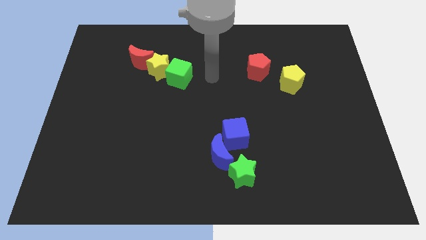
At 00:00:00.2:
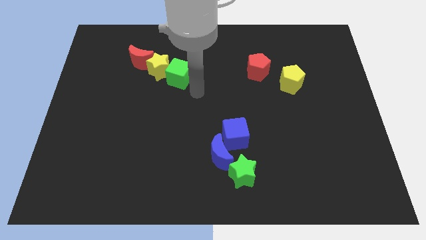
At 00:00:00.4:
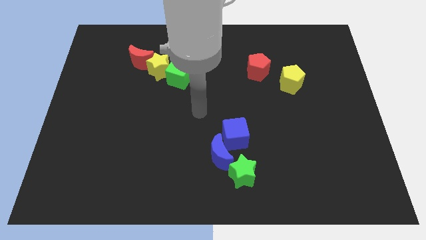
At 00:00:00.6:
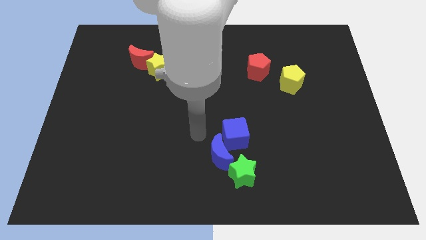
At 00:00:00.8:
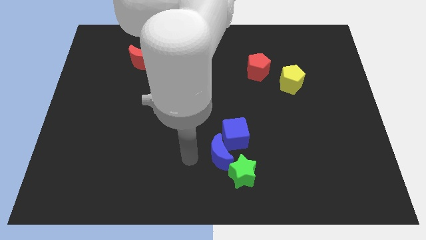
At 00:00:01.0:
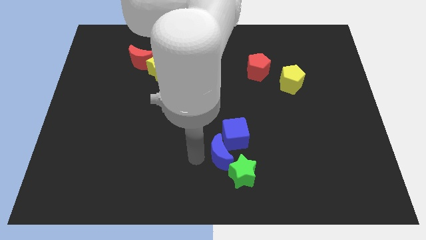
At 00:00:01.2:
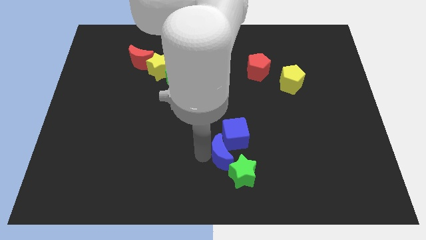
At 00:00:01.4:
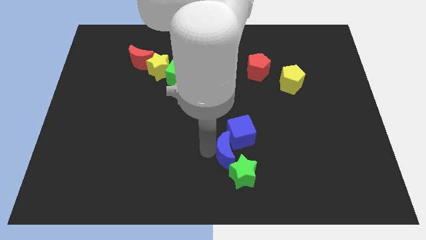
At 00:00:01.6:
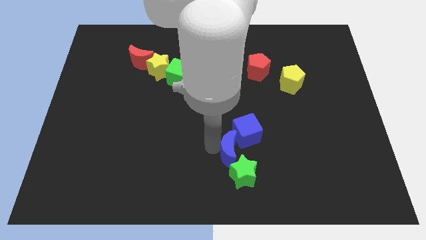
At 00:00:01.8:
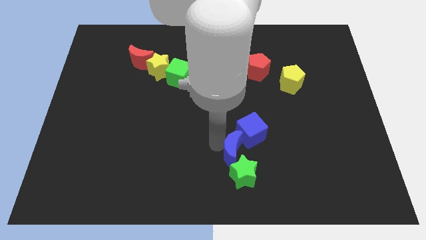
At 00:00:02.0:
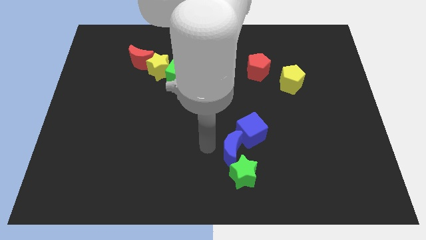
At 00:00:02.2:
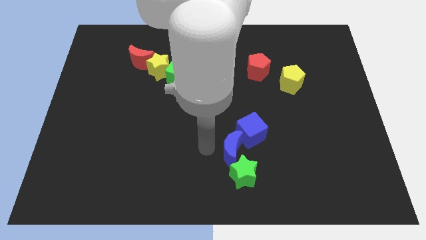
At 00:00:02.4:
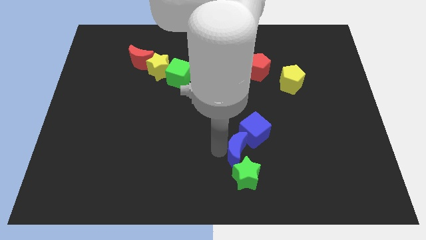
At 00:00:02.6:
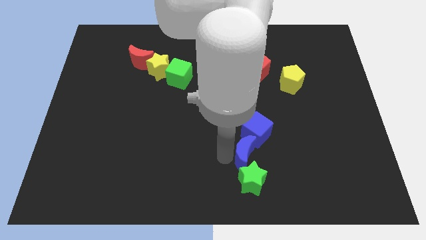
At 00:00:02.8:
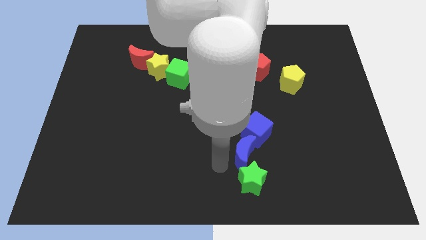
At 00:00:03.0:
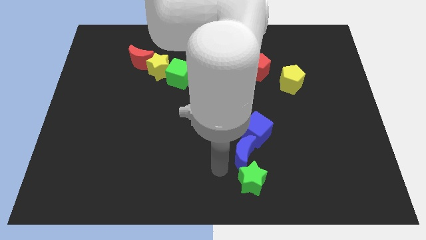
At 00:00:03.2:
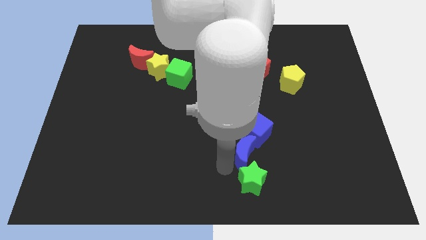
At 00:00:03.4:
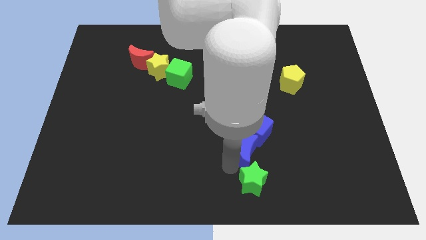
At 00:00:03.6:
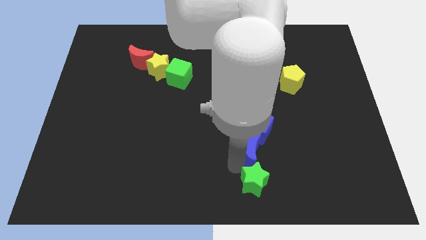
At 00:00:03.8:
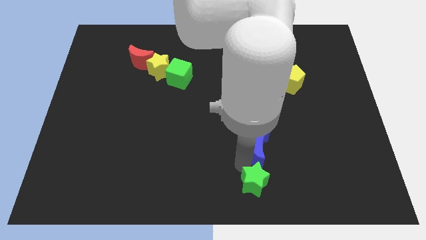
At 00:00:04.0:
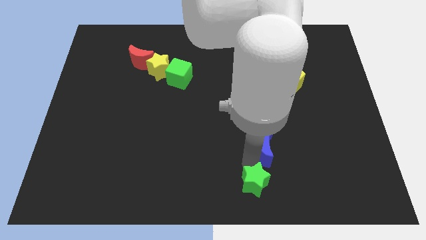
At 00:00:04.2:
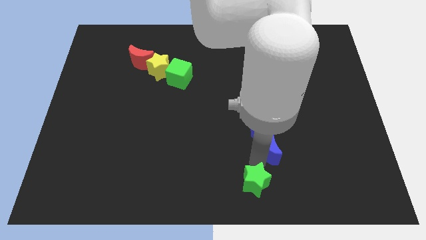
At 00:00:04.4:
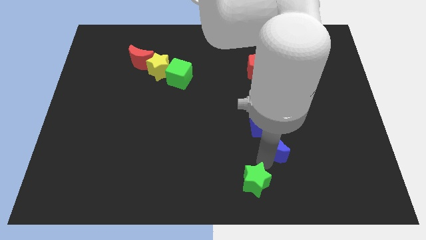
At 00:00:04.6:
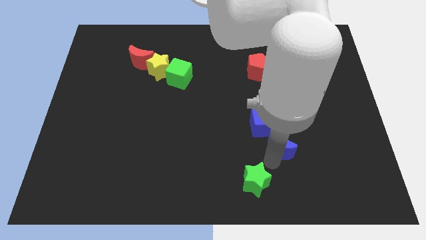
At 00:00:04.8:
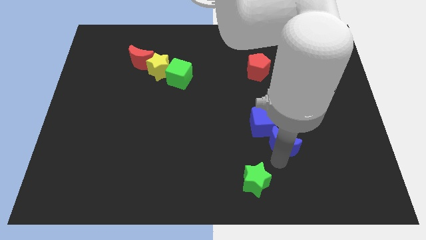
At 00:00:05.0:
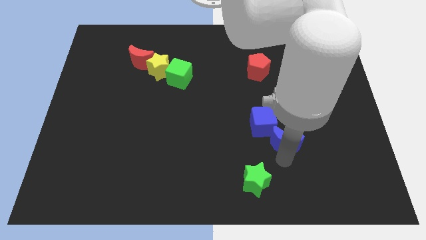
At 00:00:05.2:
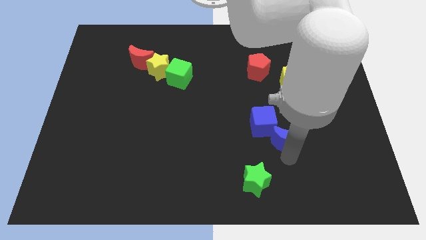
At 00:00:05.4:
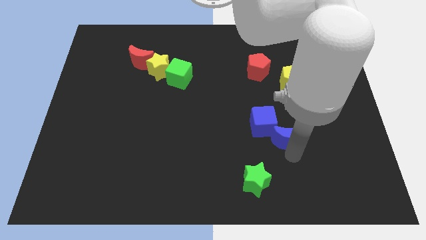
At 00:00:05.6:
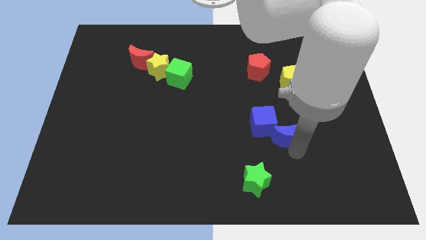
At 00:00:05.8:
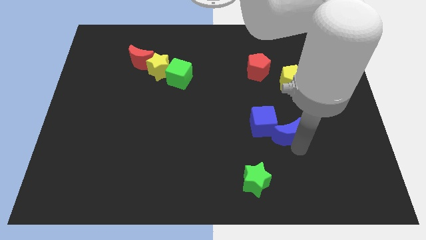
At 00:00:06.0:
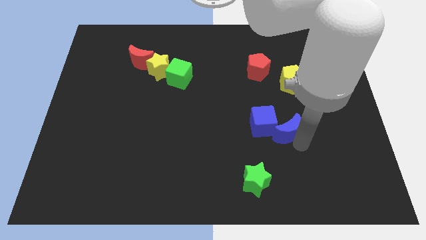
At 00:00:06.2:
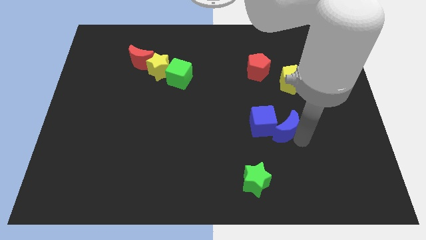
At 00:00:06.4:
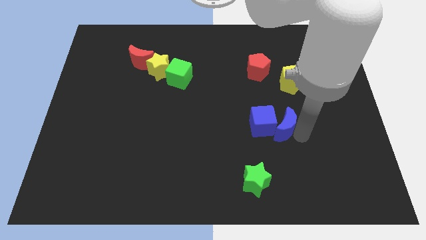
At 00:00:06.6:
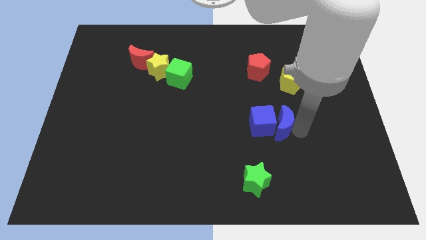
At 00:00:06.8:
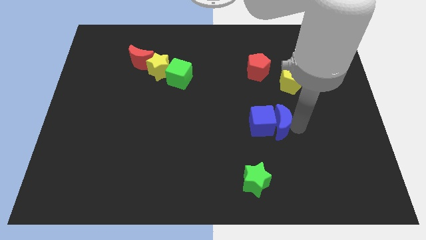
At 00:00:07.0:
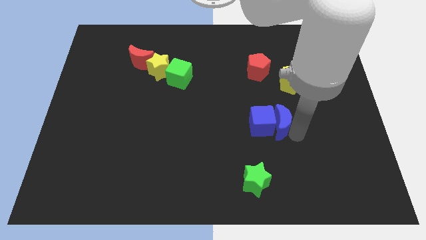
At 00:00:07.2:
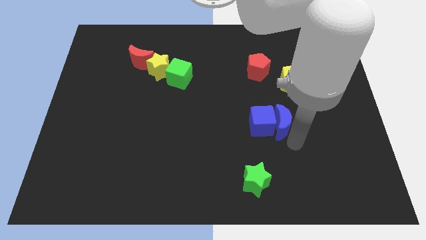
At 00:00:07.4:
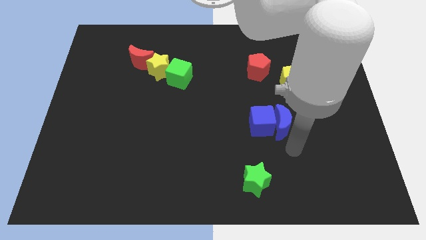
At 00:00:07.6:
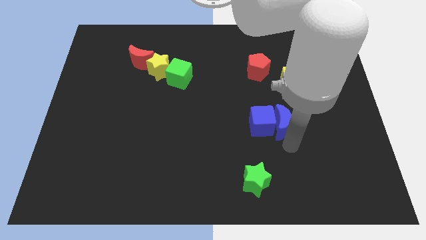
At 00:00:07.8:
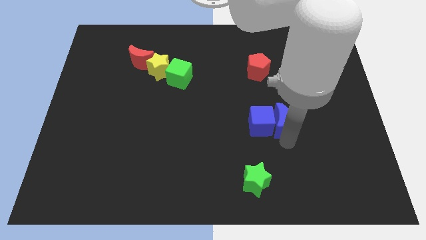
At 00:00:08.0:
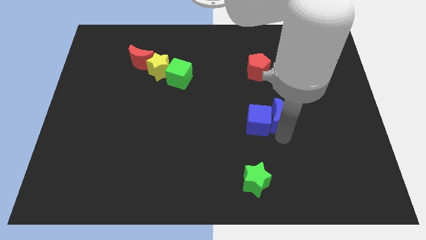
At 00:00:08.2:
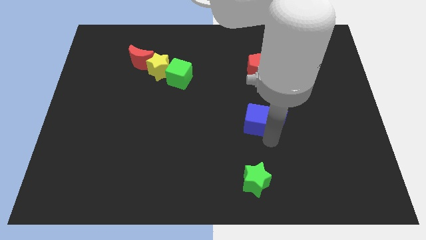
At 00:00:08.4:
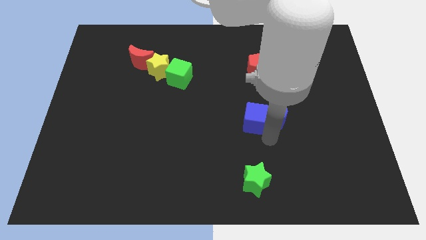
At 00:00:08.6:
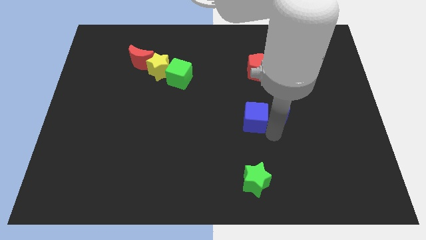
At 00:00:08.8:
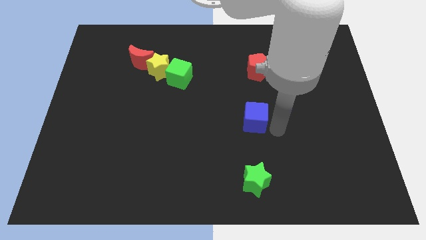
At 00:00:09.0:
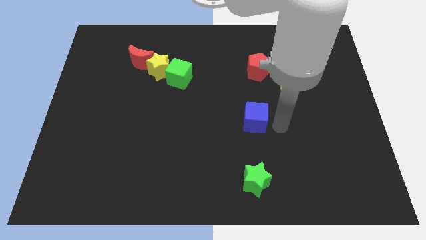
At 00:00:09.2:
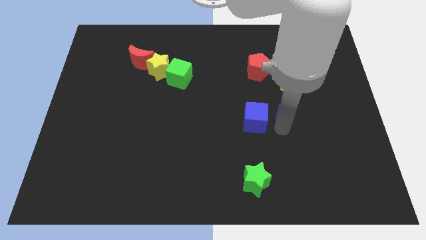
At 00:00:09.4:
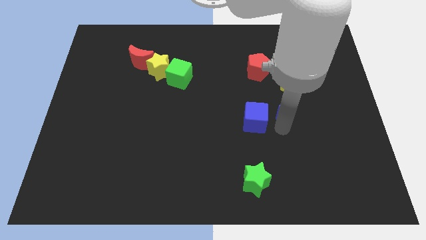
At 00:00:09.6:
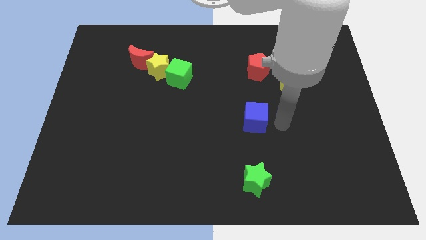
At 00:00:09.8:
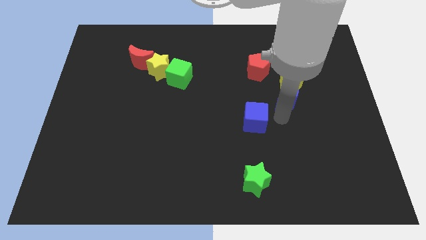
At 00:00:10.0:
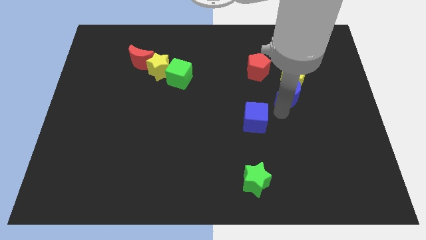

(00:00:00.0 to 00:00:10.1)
slide the blue moon close to the yellow pentagon

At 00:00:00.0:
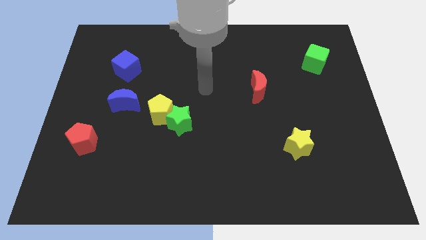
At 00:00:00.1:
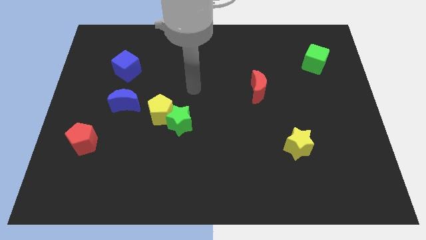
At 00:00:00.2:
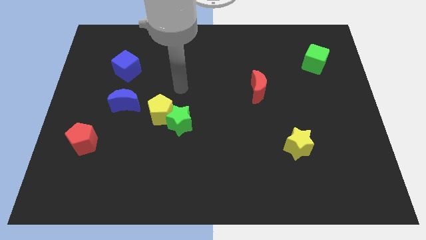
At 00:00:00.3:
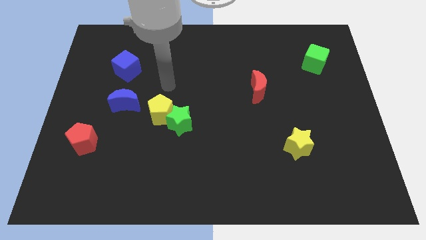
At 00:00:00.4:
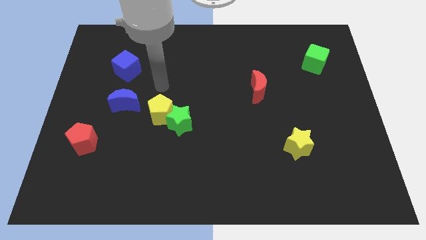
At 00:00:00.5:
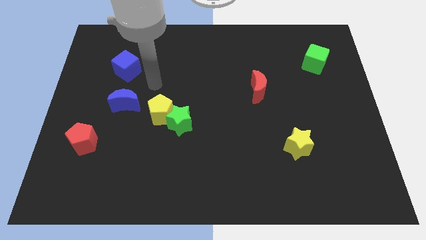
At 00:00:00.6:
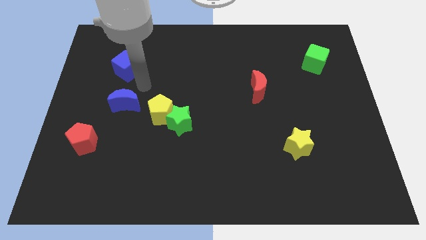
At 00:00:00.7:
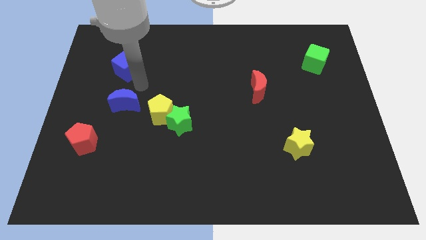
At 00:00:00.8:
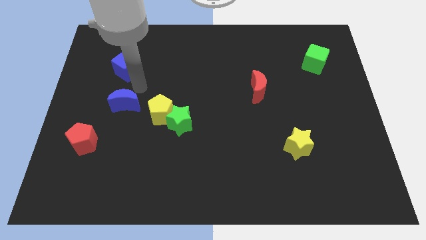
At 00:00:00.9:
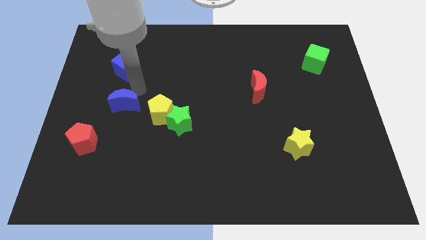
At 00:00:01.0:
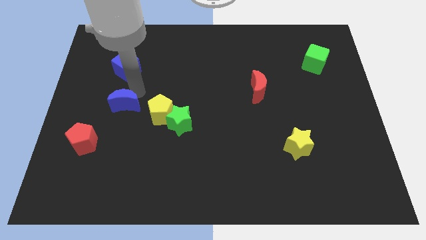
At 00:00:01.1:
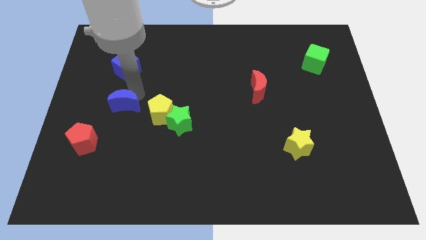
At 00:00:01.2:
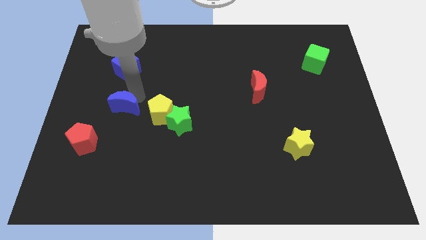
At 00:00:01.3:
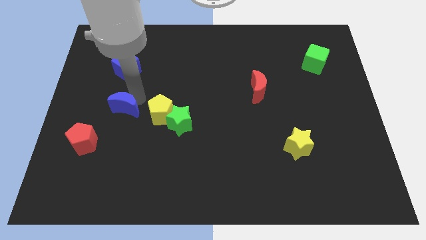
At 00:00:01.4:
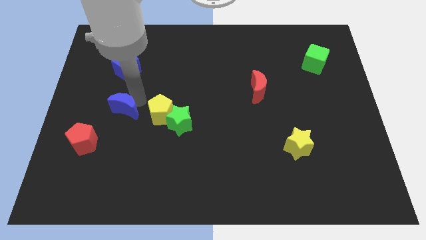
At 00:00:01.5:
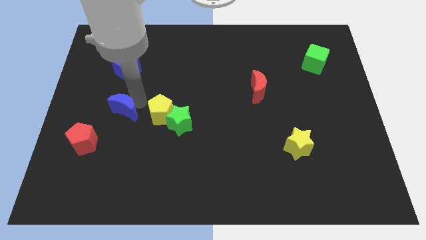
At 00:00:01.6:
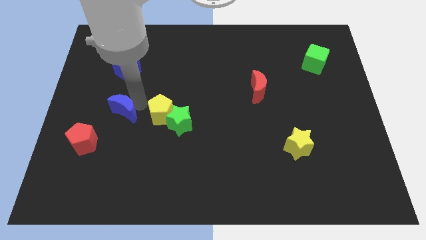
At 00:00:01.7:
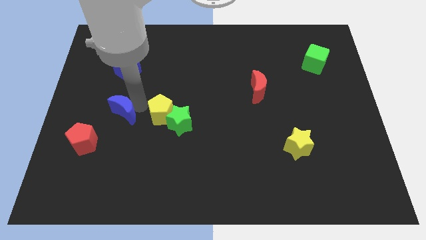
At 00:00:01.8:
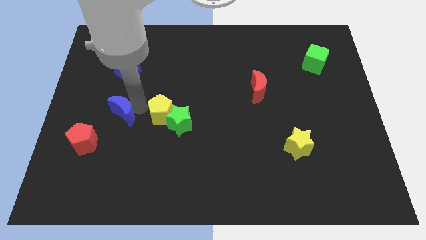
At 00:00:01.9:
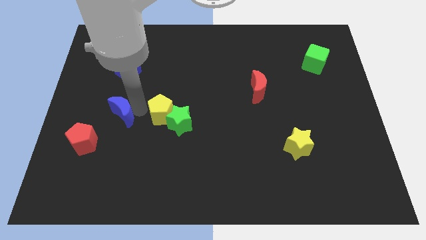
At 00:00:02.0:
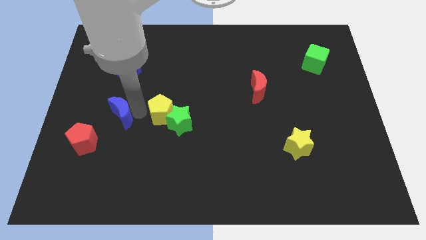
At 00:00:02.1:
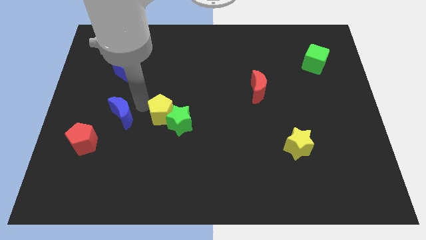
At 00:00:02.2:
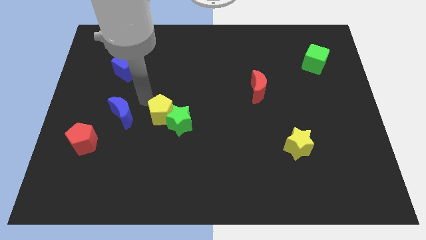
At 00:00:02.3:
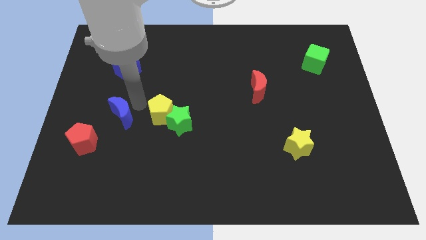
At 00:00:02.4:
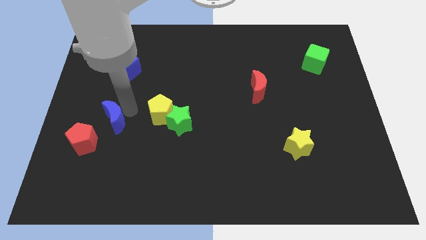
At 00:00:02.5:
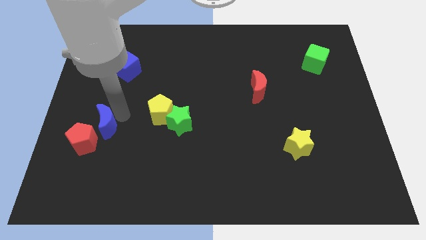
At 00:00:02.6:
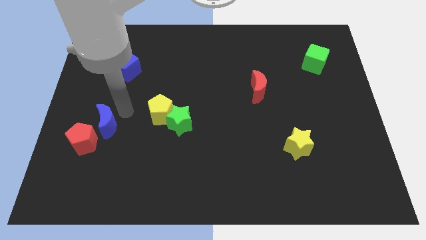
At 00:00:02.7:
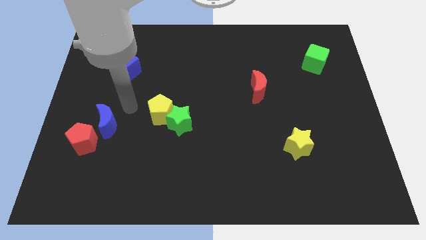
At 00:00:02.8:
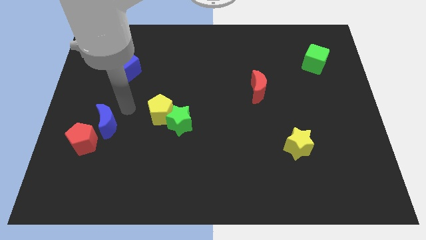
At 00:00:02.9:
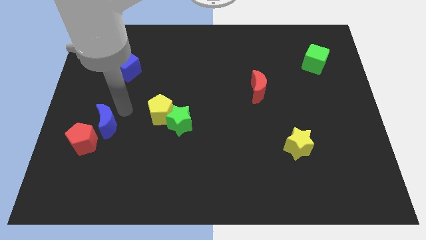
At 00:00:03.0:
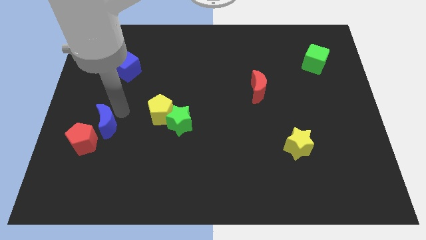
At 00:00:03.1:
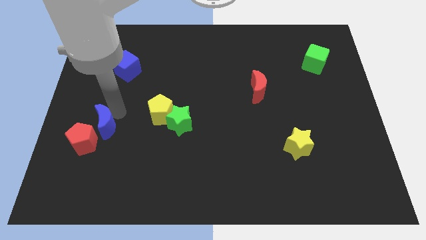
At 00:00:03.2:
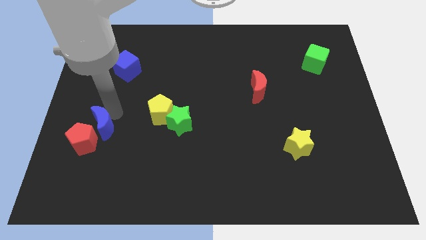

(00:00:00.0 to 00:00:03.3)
move the blue moon to the red pentagon
